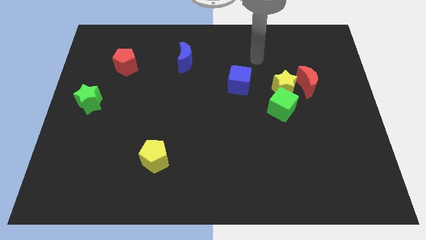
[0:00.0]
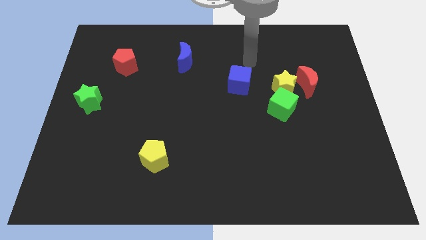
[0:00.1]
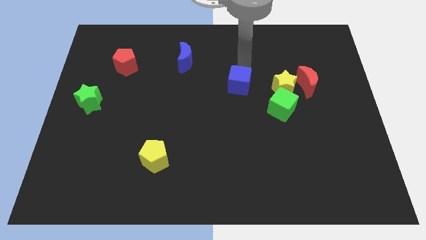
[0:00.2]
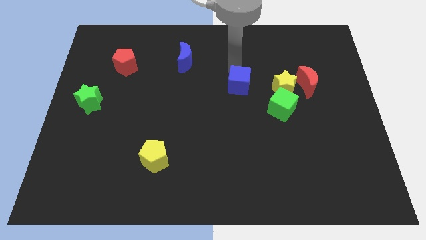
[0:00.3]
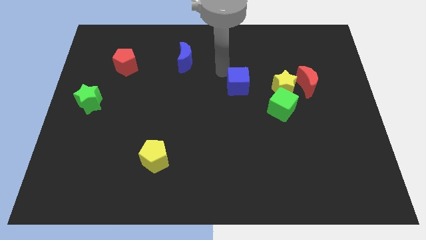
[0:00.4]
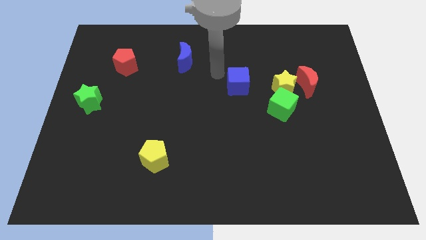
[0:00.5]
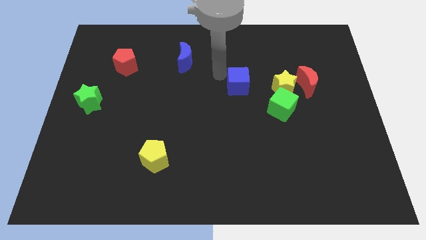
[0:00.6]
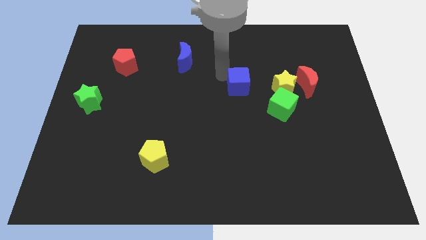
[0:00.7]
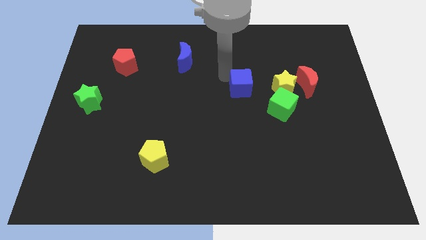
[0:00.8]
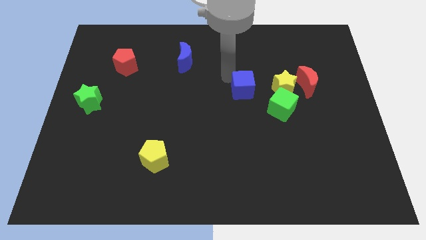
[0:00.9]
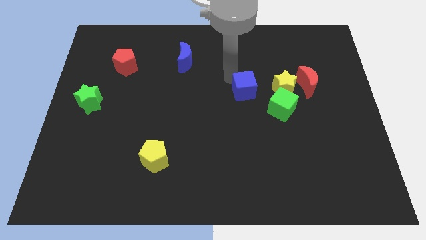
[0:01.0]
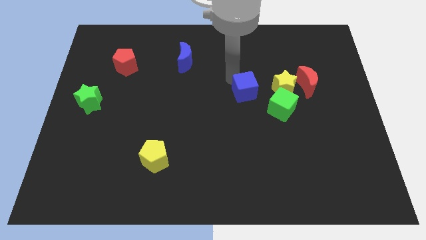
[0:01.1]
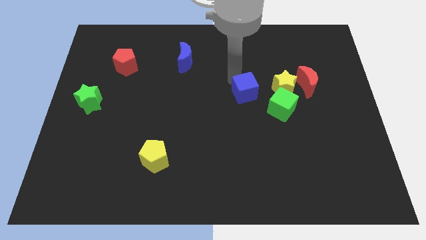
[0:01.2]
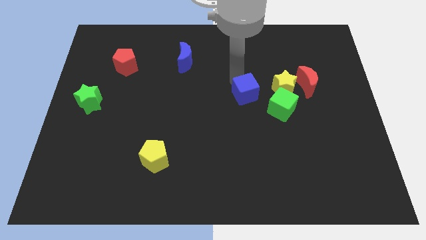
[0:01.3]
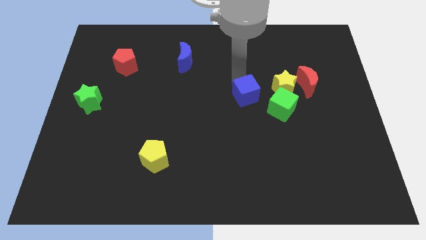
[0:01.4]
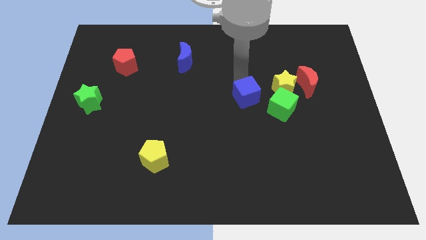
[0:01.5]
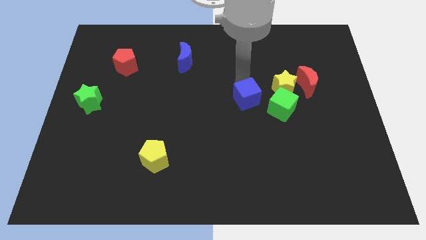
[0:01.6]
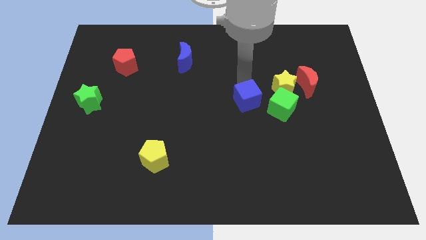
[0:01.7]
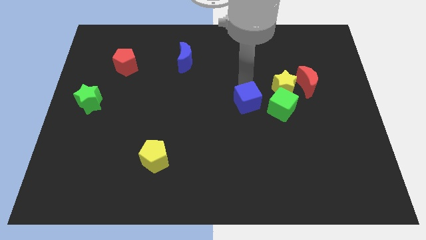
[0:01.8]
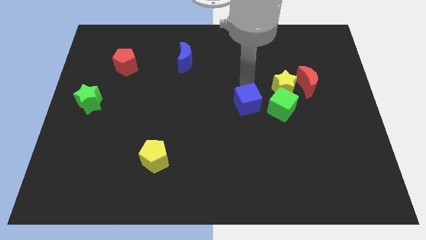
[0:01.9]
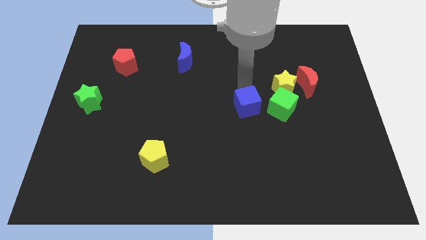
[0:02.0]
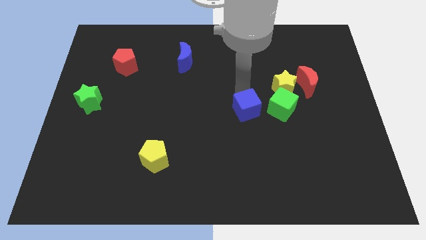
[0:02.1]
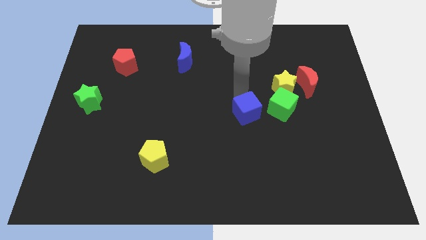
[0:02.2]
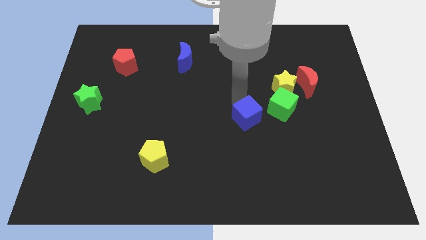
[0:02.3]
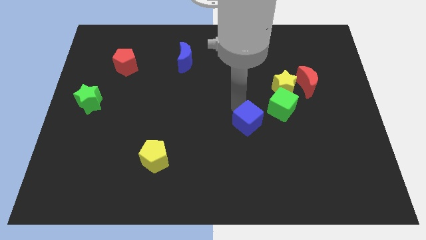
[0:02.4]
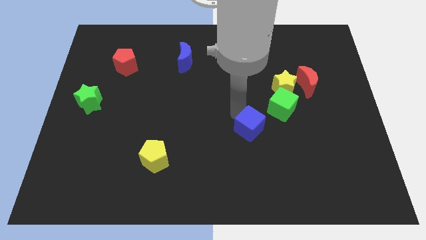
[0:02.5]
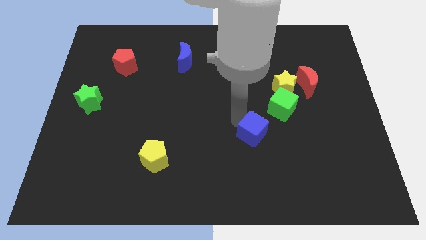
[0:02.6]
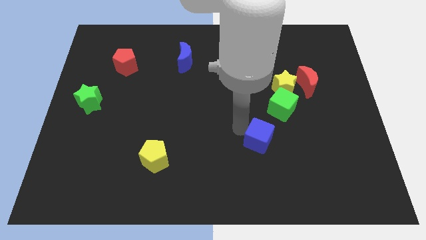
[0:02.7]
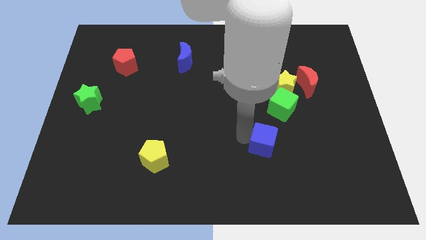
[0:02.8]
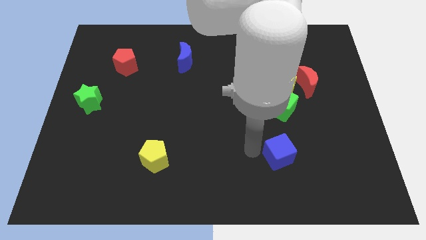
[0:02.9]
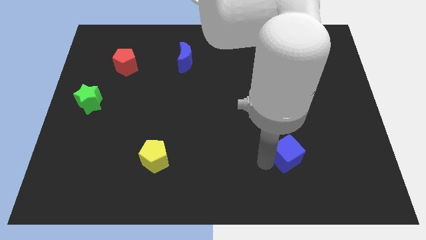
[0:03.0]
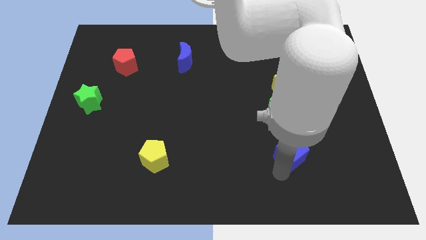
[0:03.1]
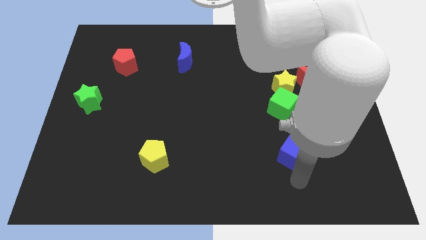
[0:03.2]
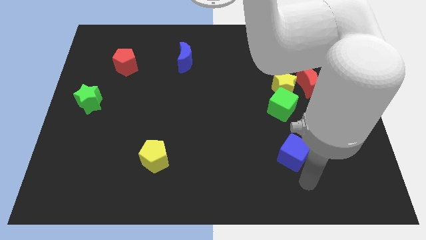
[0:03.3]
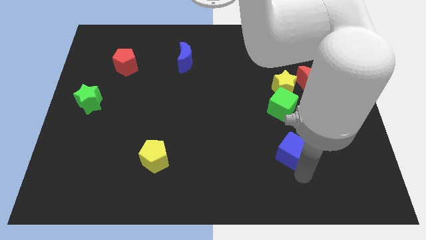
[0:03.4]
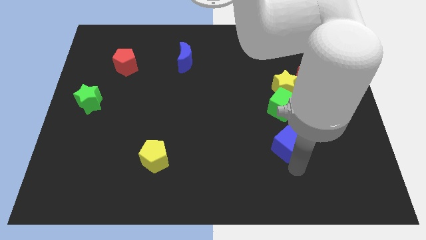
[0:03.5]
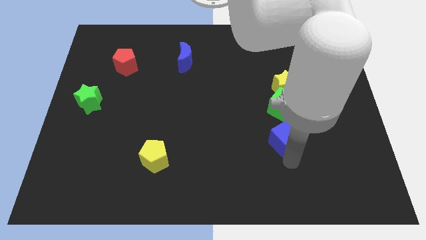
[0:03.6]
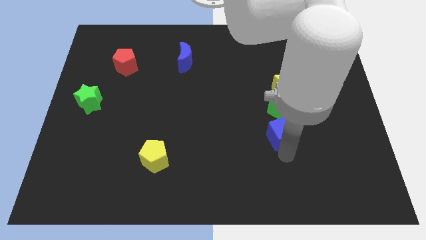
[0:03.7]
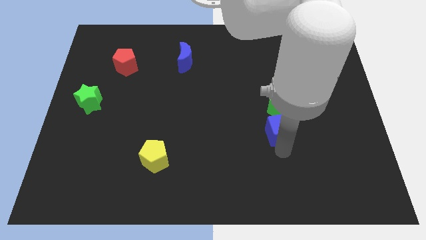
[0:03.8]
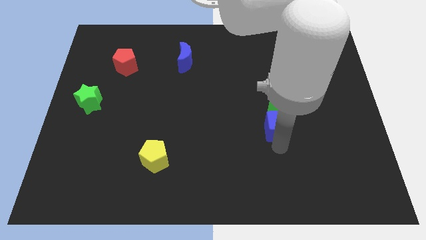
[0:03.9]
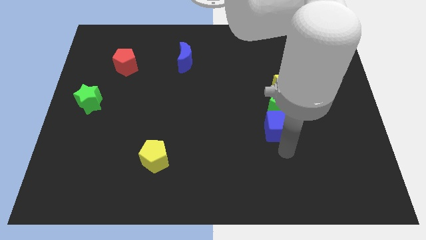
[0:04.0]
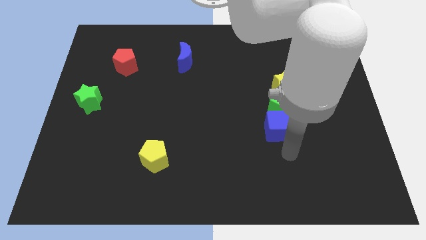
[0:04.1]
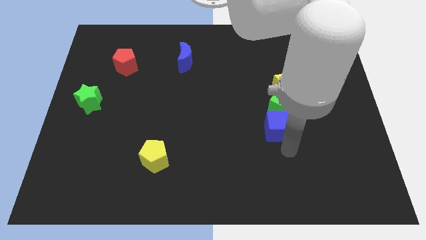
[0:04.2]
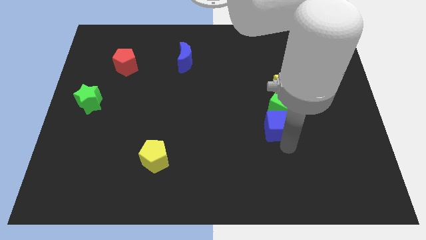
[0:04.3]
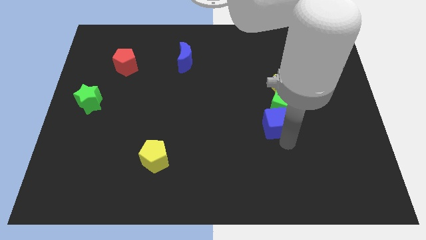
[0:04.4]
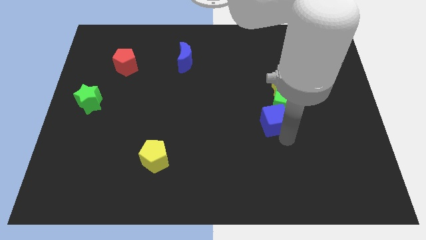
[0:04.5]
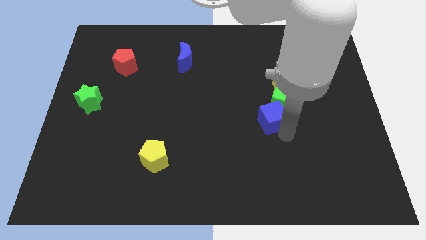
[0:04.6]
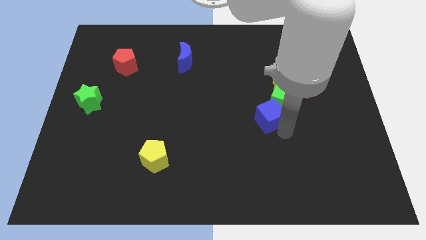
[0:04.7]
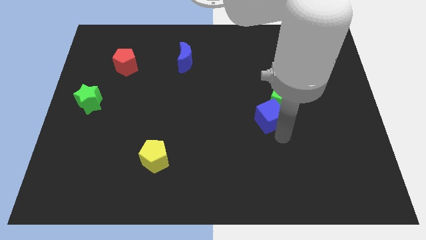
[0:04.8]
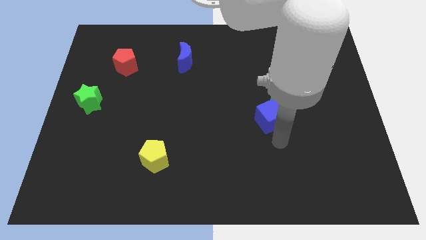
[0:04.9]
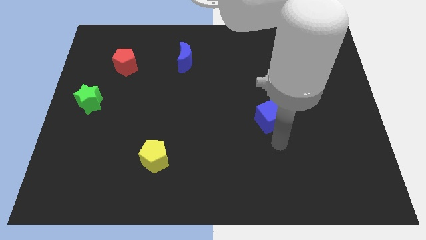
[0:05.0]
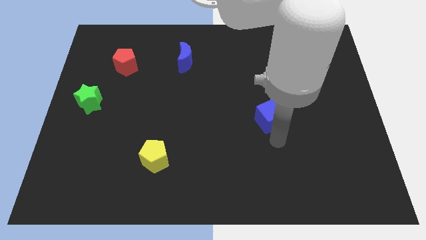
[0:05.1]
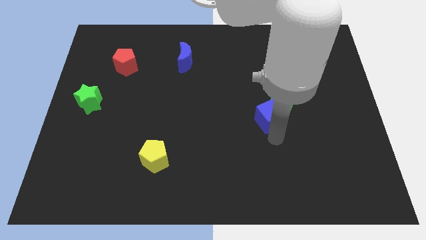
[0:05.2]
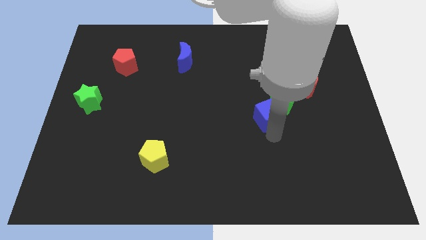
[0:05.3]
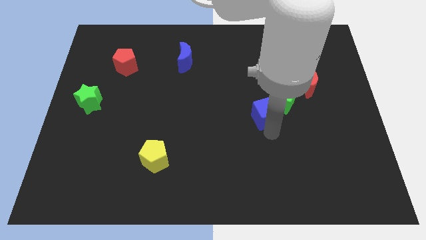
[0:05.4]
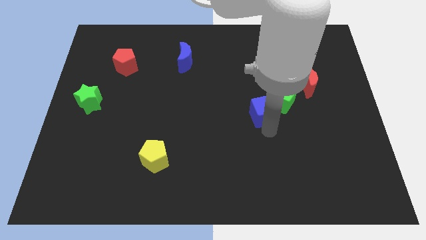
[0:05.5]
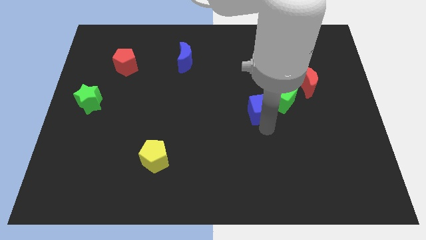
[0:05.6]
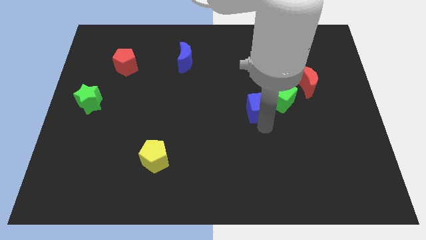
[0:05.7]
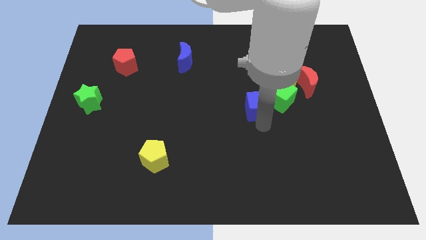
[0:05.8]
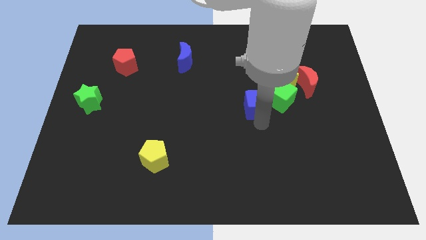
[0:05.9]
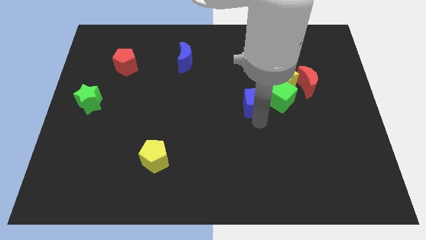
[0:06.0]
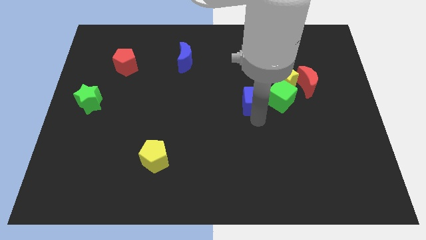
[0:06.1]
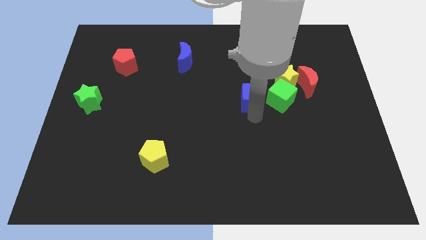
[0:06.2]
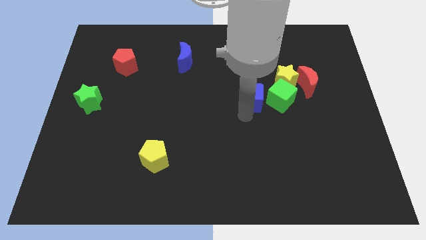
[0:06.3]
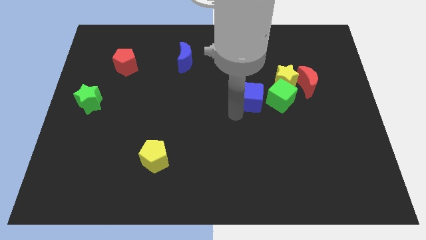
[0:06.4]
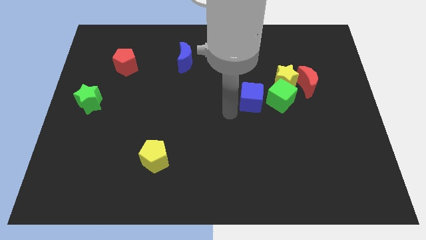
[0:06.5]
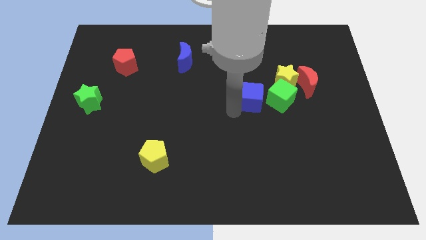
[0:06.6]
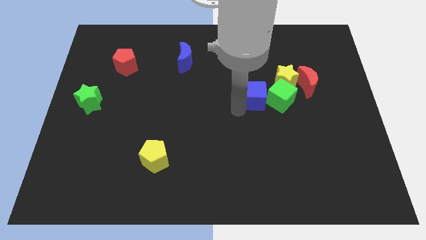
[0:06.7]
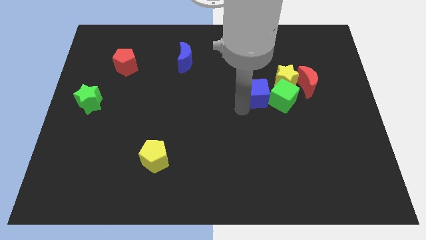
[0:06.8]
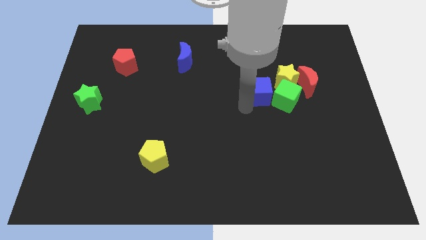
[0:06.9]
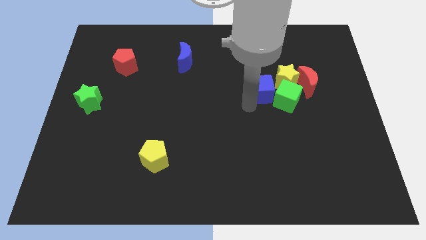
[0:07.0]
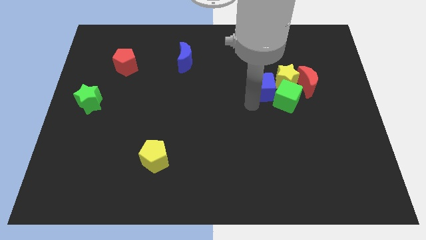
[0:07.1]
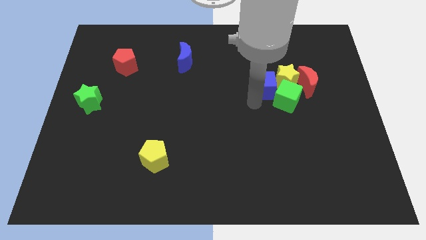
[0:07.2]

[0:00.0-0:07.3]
put the blue cube next to the yellow star

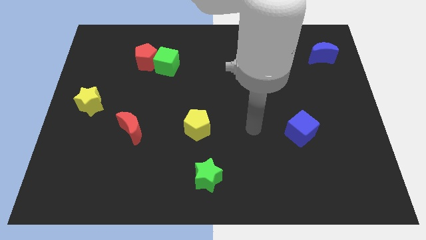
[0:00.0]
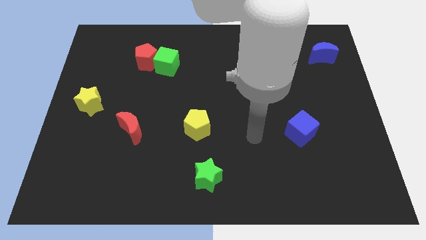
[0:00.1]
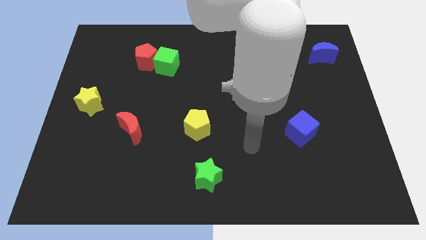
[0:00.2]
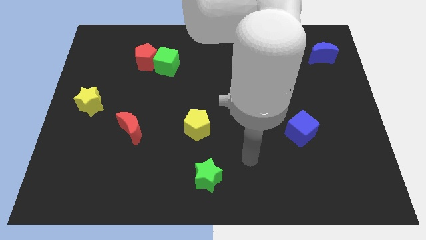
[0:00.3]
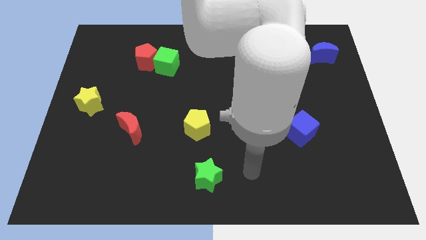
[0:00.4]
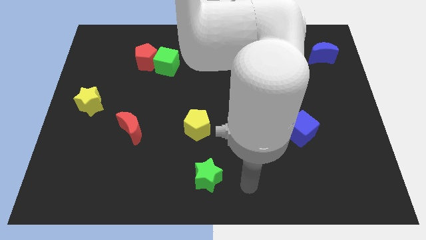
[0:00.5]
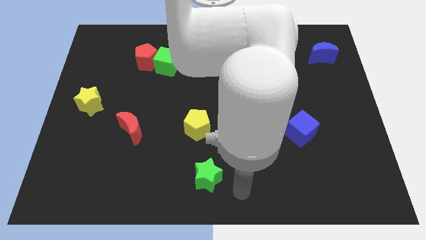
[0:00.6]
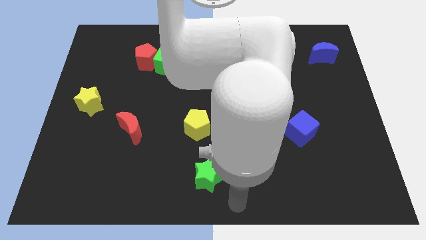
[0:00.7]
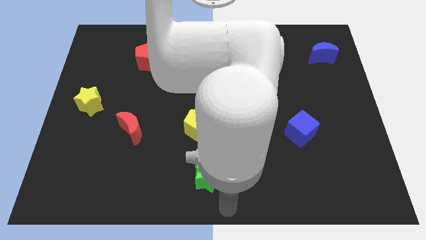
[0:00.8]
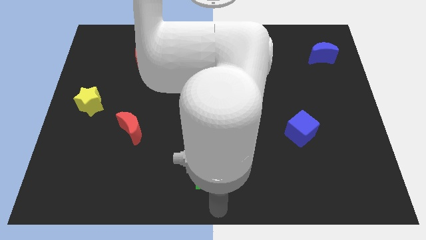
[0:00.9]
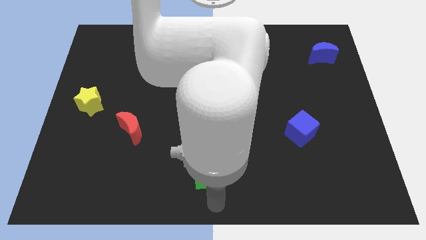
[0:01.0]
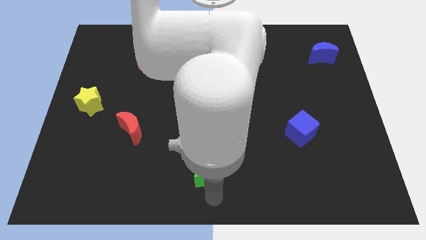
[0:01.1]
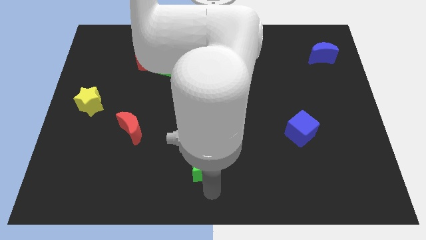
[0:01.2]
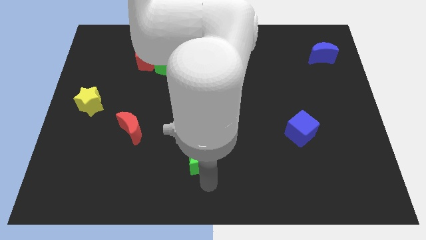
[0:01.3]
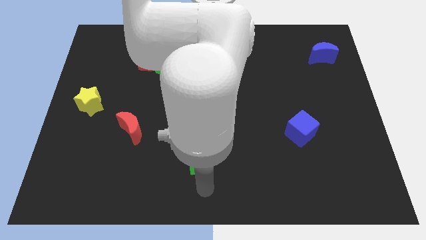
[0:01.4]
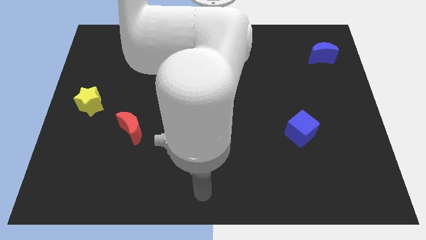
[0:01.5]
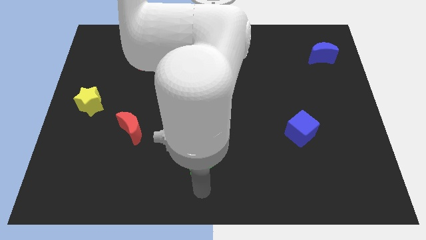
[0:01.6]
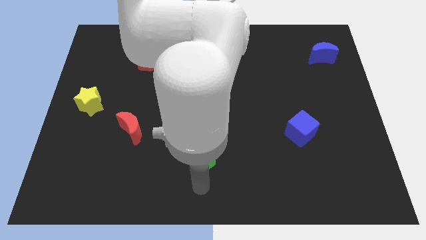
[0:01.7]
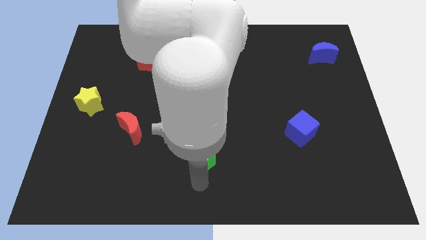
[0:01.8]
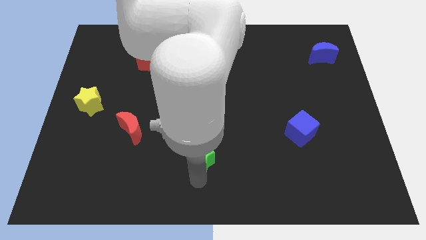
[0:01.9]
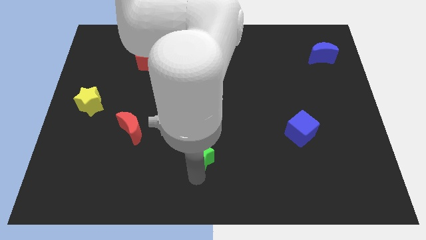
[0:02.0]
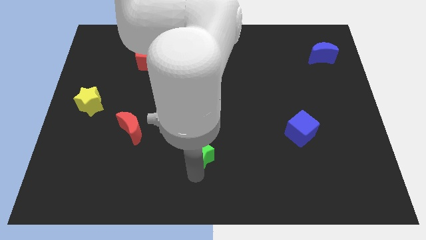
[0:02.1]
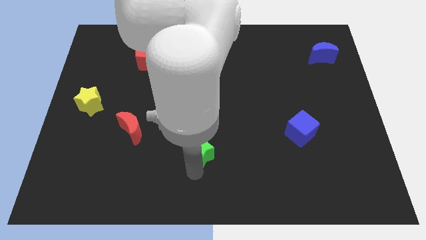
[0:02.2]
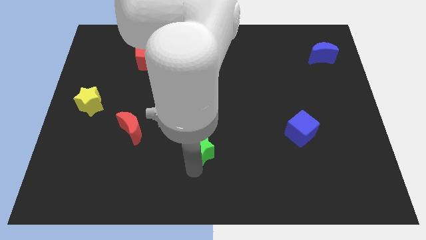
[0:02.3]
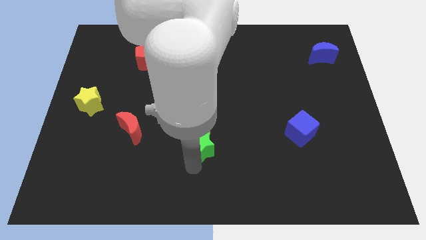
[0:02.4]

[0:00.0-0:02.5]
push the green star close to the yellow pentagon
